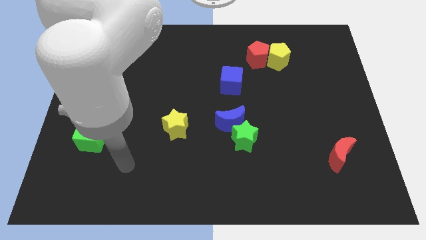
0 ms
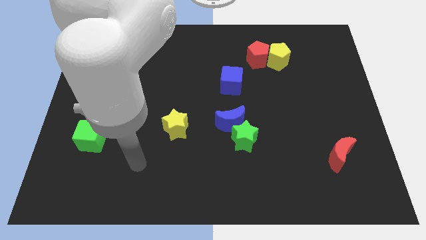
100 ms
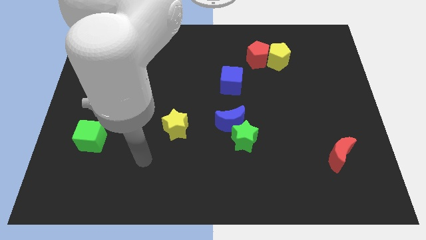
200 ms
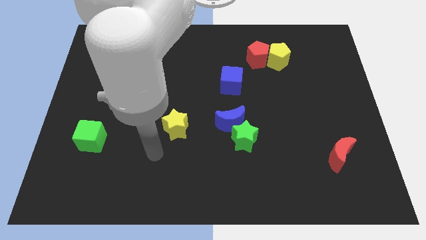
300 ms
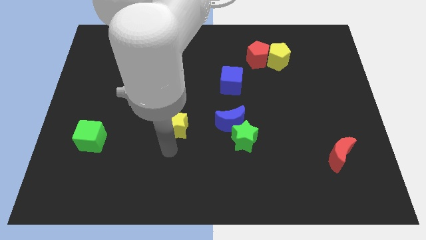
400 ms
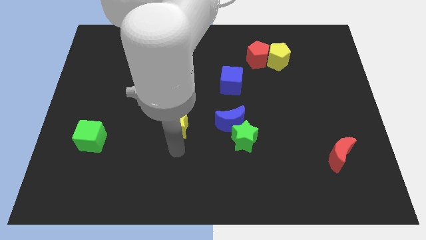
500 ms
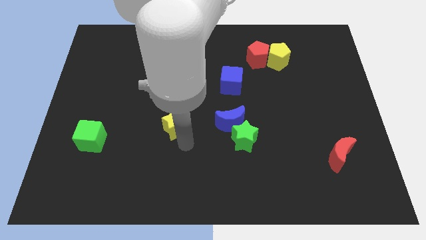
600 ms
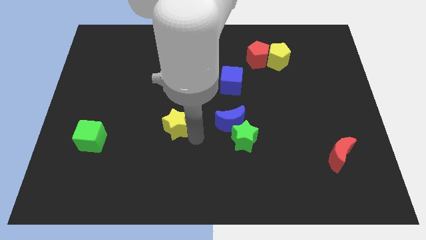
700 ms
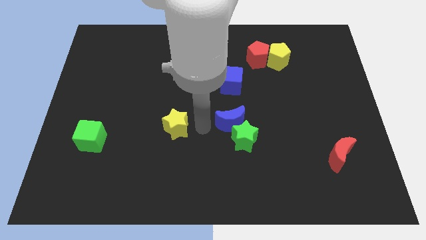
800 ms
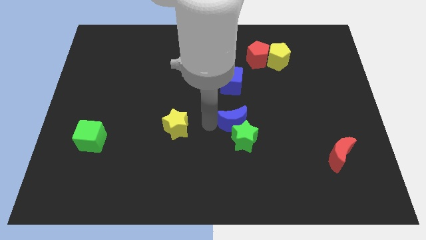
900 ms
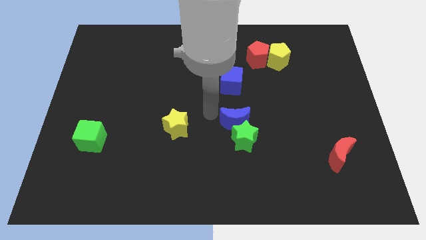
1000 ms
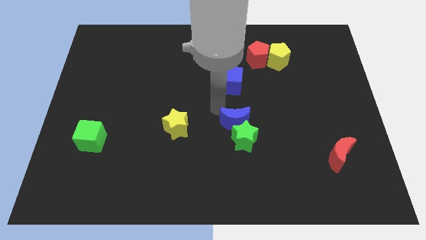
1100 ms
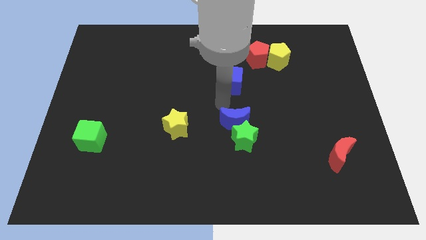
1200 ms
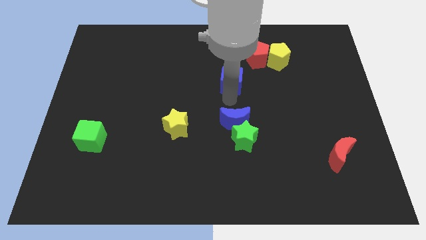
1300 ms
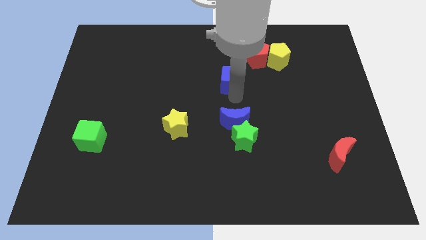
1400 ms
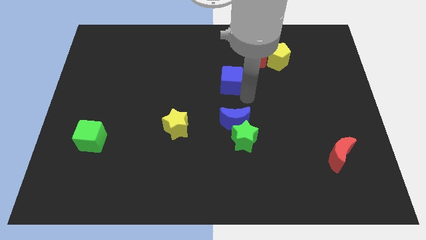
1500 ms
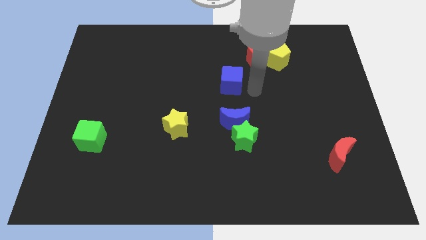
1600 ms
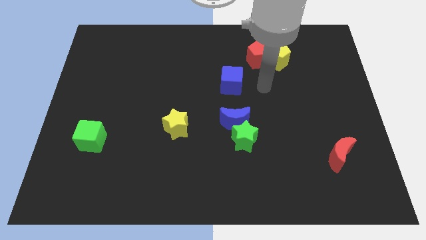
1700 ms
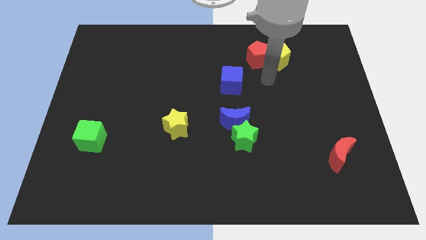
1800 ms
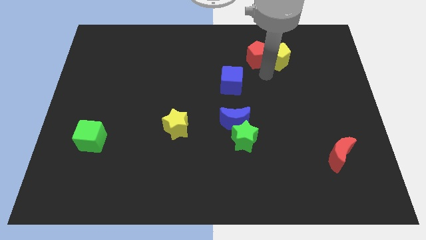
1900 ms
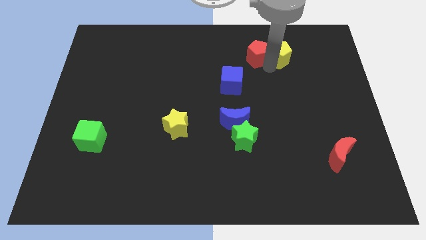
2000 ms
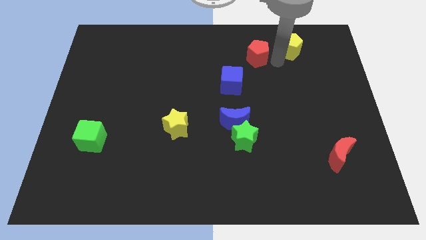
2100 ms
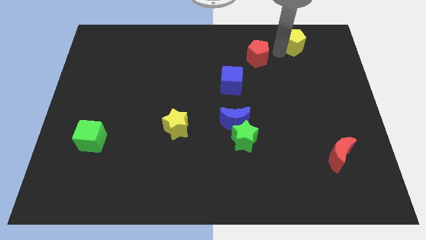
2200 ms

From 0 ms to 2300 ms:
separate the red pentagon from the yellow pentagon

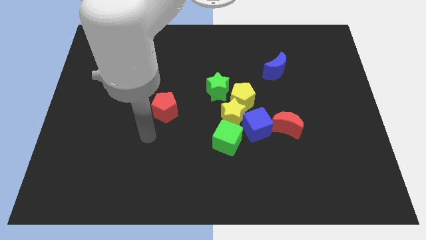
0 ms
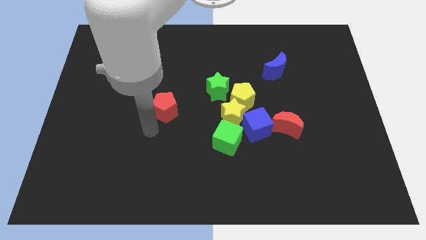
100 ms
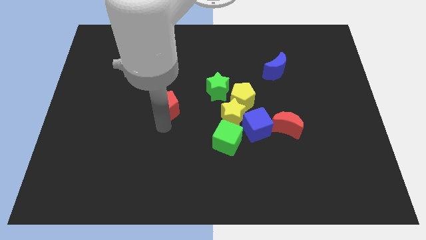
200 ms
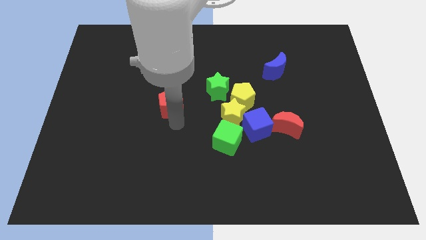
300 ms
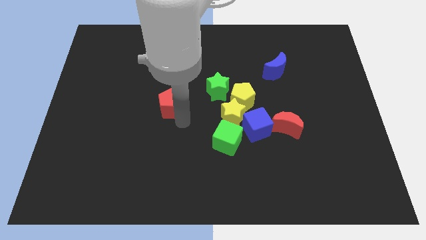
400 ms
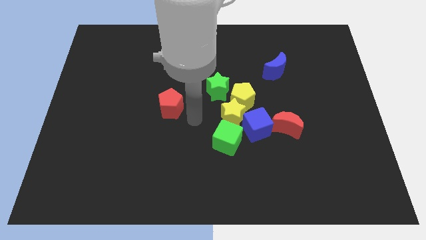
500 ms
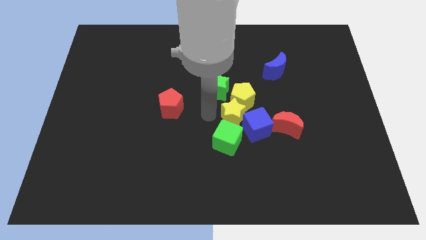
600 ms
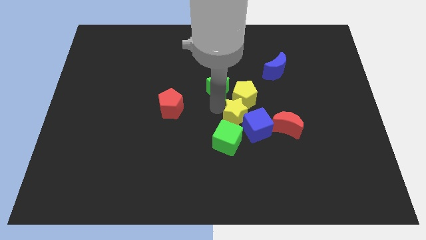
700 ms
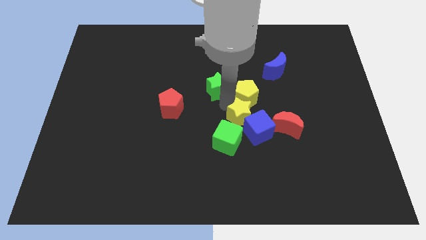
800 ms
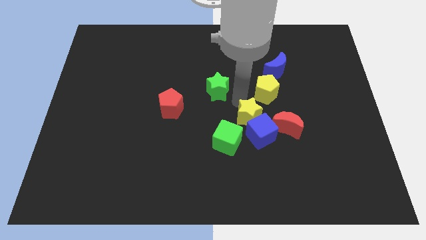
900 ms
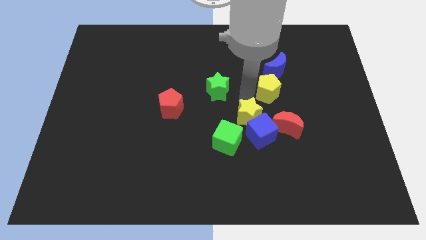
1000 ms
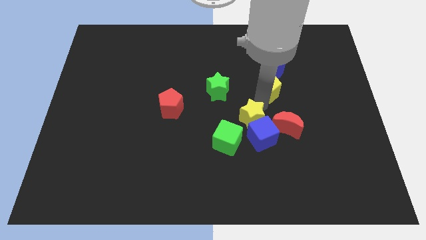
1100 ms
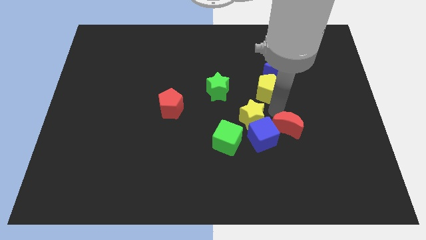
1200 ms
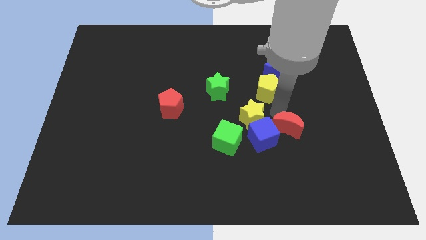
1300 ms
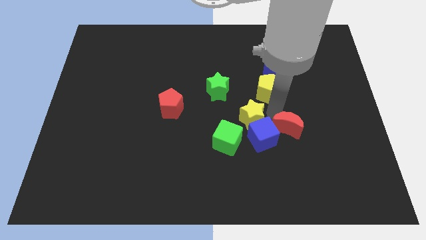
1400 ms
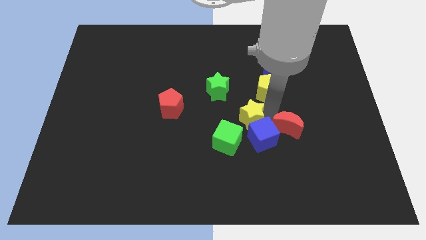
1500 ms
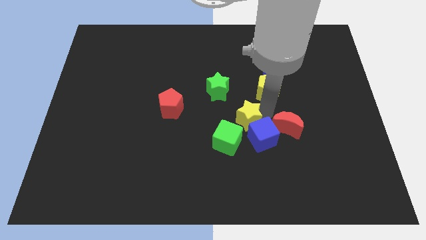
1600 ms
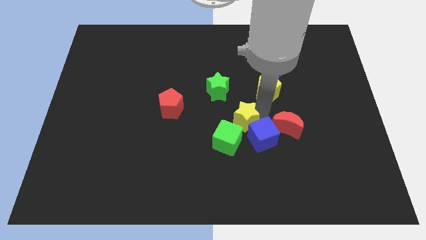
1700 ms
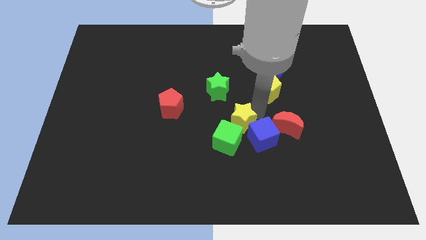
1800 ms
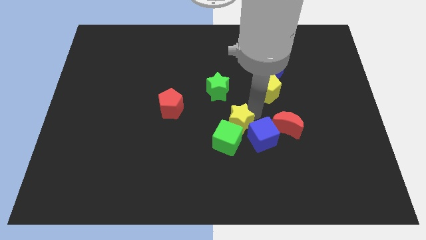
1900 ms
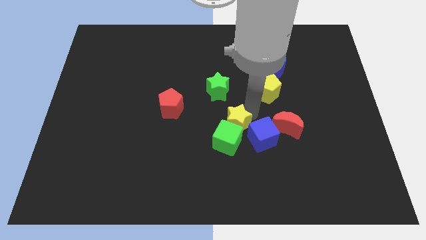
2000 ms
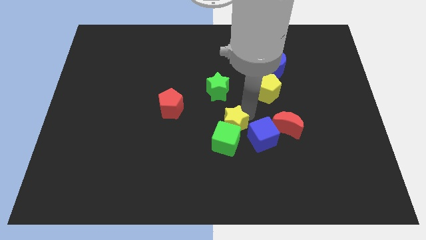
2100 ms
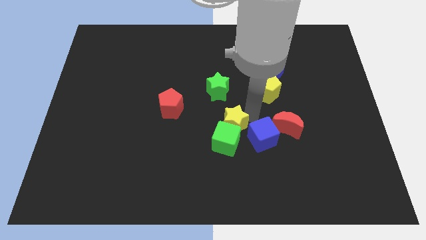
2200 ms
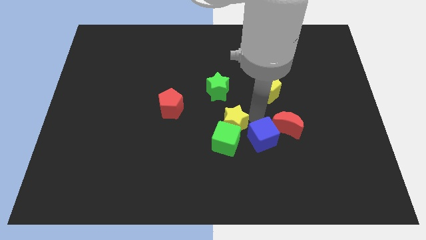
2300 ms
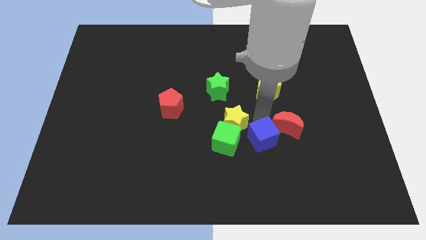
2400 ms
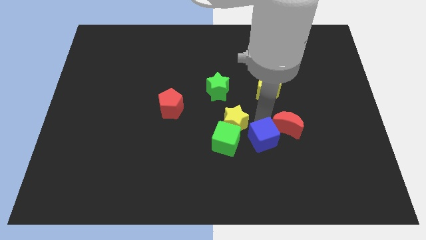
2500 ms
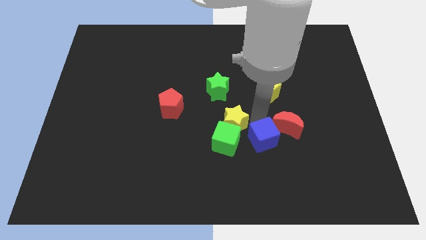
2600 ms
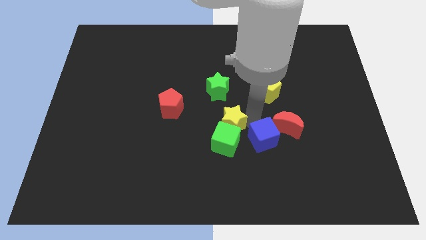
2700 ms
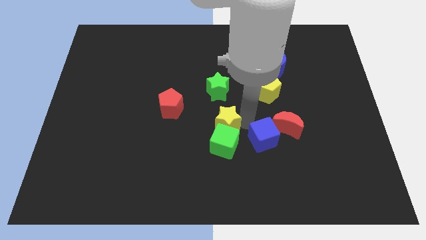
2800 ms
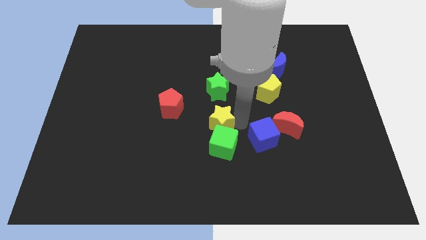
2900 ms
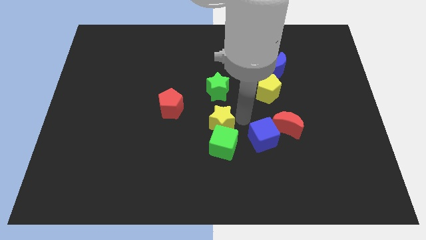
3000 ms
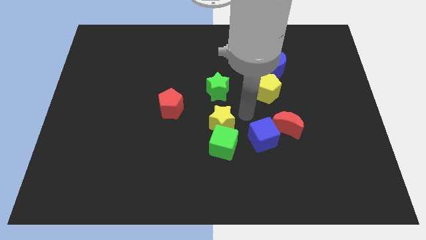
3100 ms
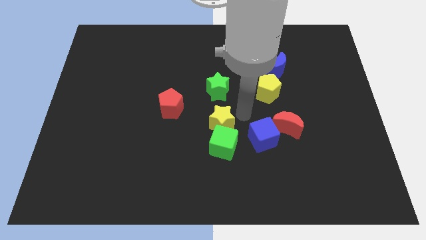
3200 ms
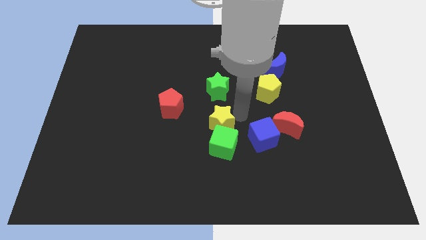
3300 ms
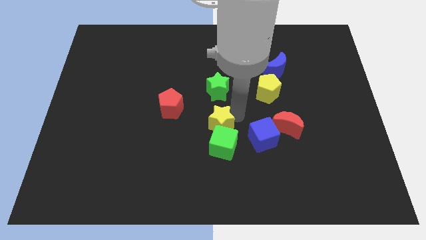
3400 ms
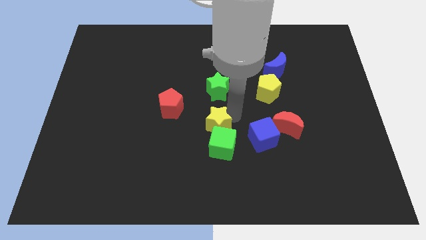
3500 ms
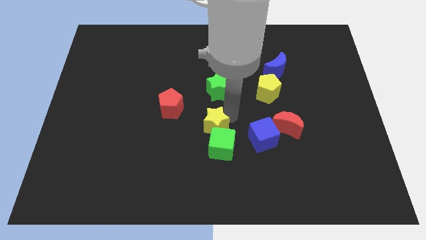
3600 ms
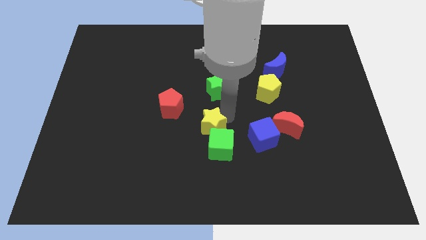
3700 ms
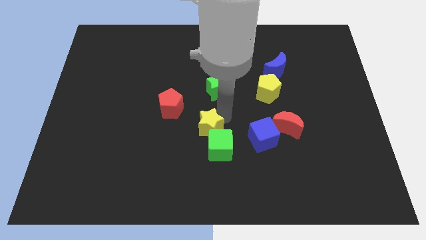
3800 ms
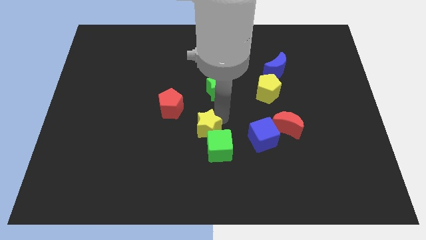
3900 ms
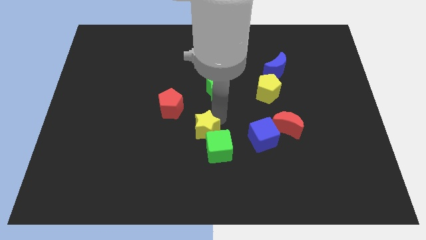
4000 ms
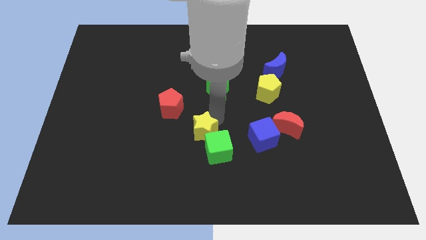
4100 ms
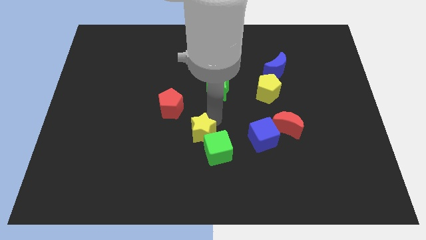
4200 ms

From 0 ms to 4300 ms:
pull the yellow star apart from the clump

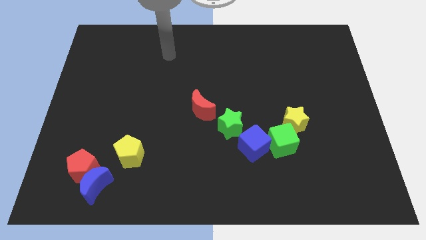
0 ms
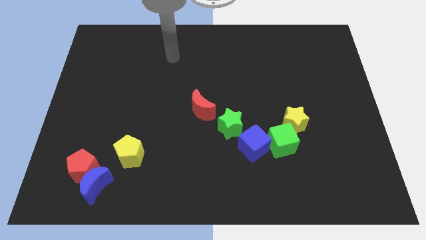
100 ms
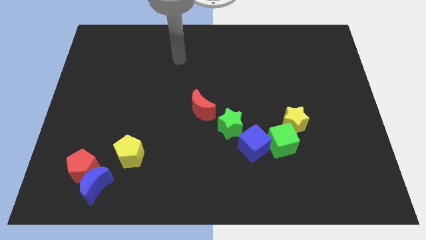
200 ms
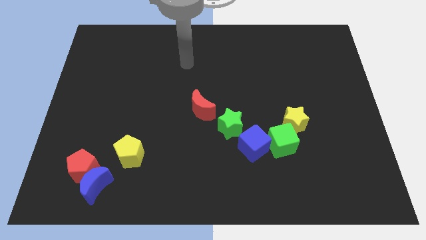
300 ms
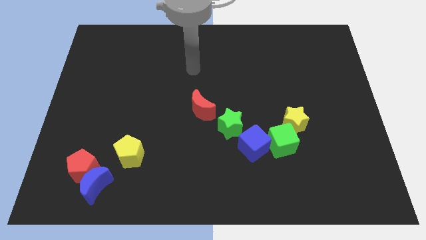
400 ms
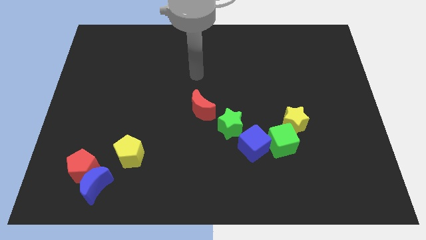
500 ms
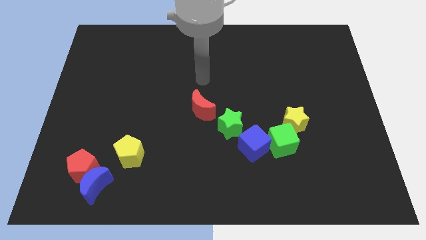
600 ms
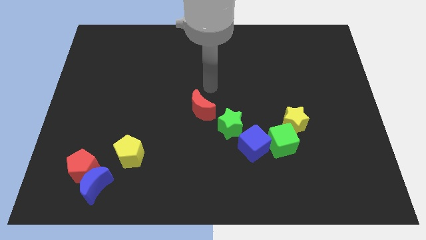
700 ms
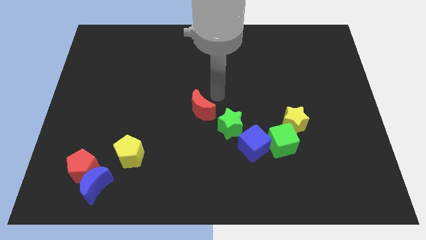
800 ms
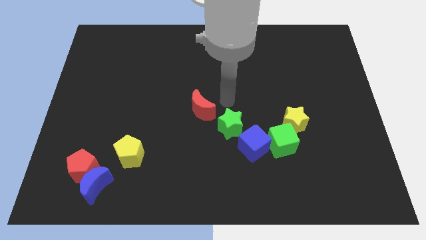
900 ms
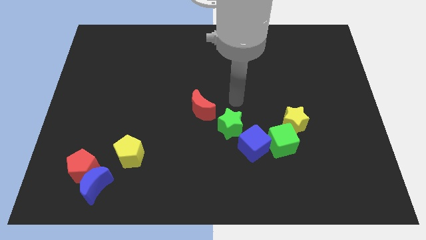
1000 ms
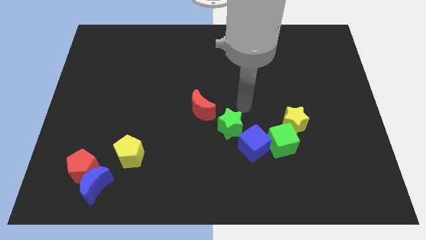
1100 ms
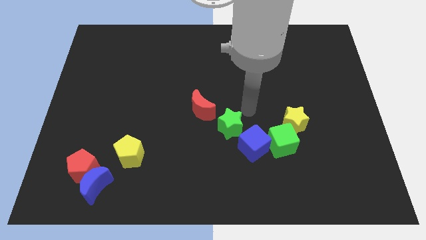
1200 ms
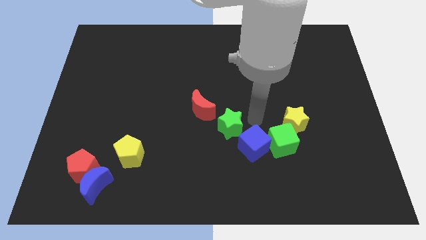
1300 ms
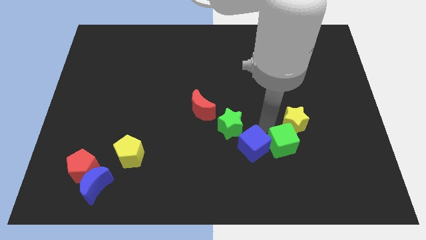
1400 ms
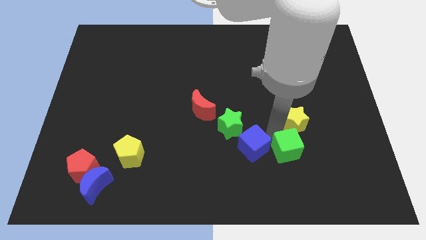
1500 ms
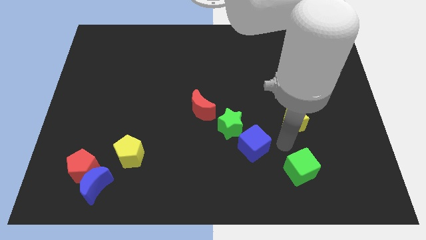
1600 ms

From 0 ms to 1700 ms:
separate the yellow star from the green cube

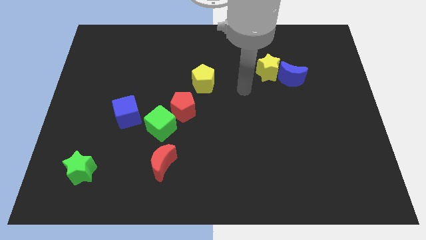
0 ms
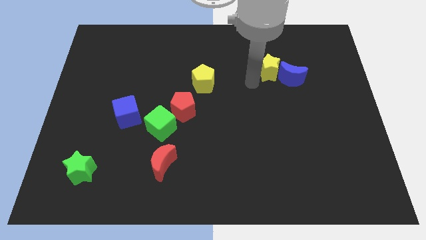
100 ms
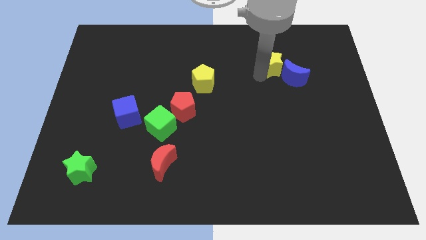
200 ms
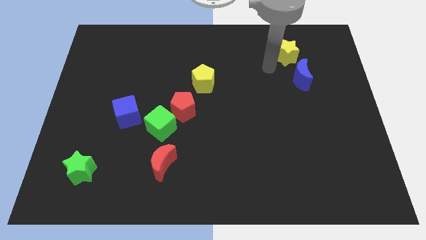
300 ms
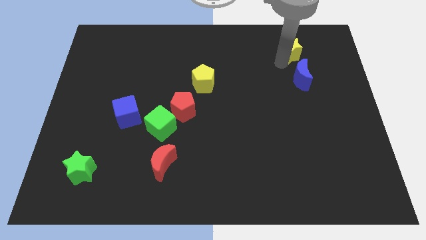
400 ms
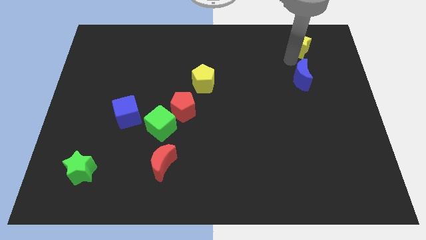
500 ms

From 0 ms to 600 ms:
separate the blue moon from the yellow star

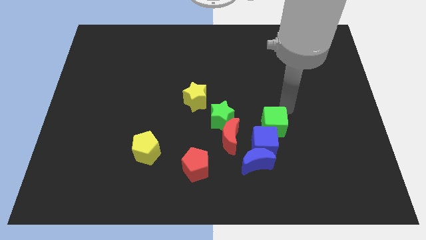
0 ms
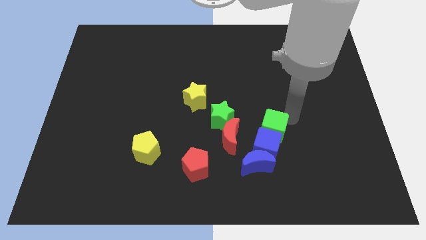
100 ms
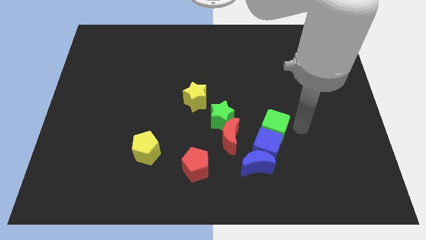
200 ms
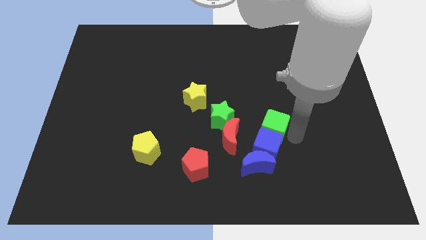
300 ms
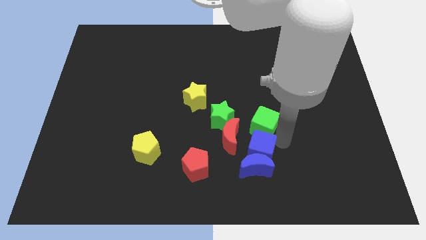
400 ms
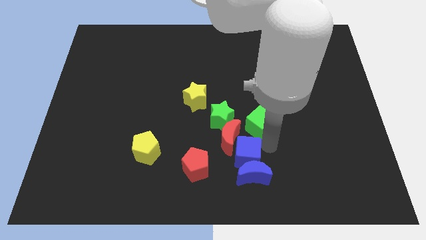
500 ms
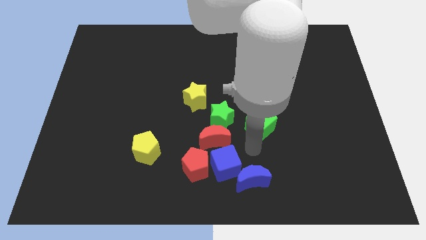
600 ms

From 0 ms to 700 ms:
separate the green cube from the blue cube
